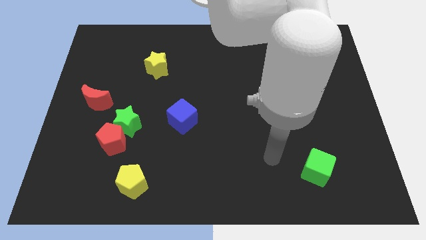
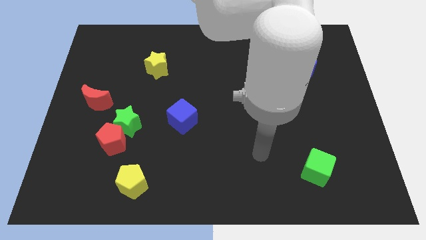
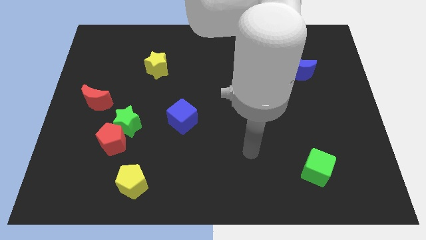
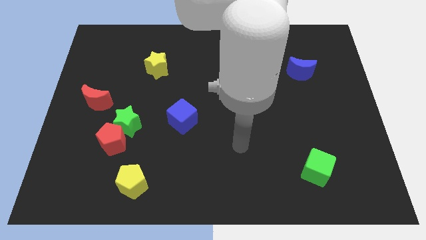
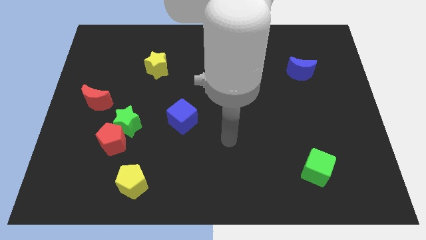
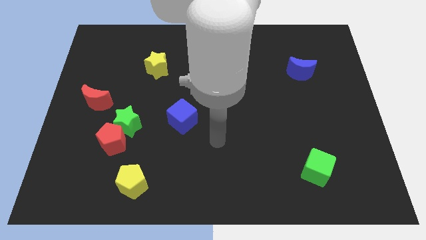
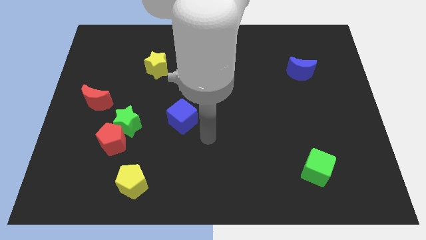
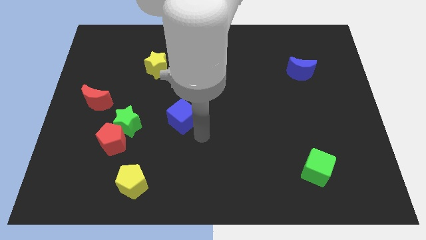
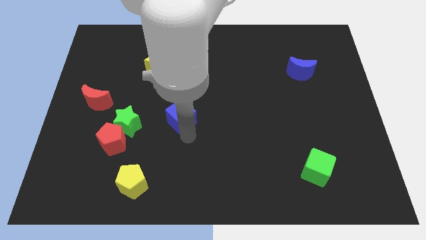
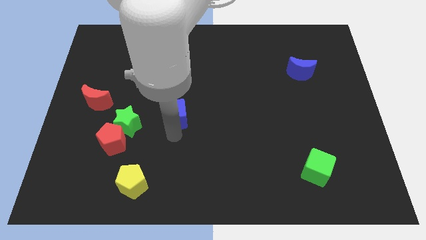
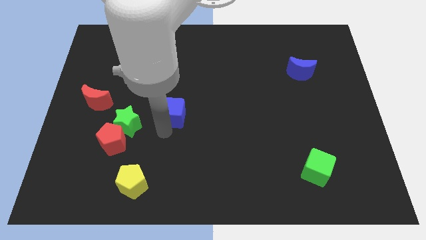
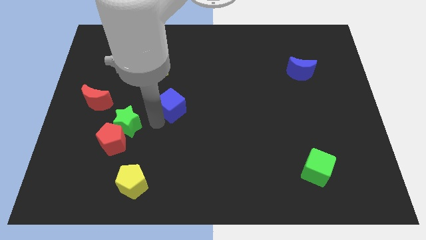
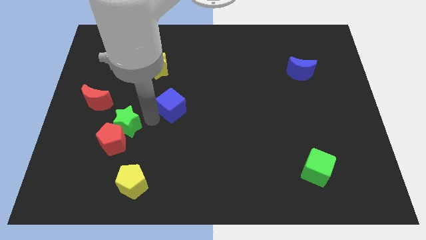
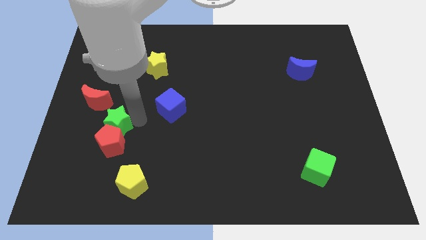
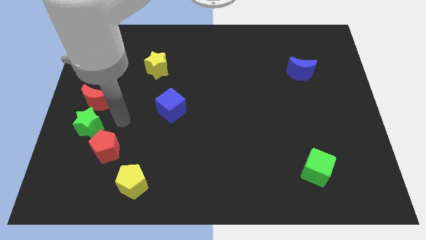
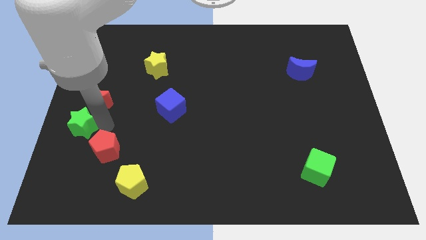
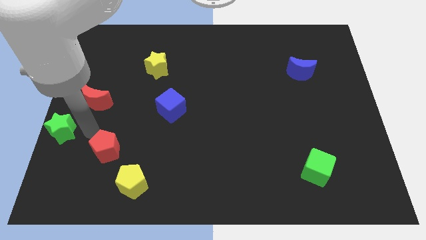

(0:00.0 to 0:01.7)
separate the red pentagon from the green star

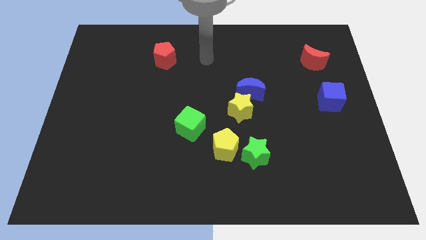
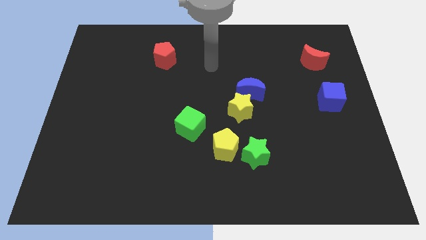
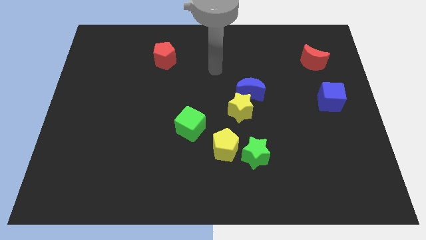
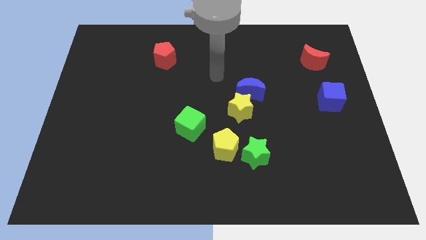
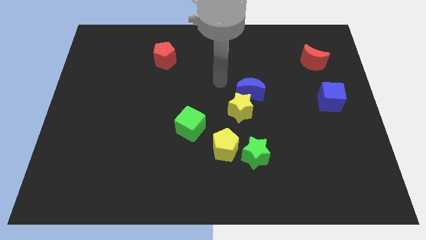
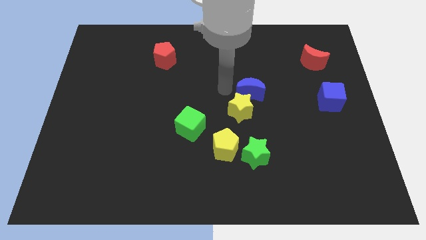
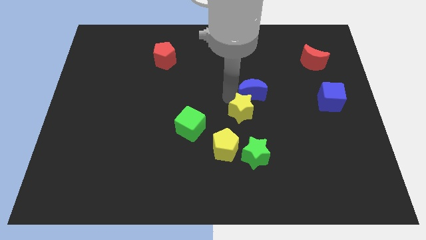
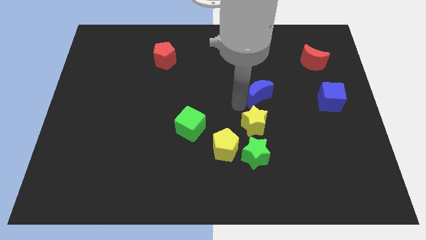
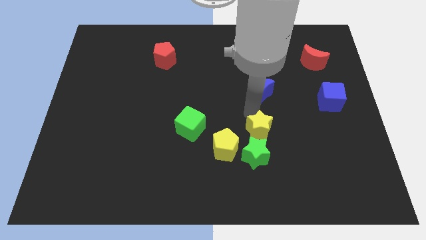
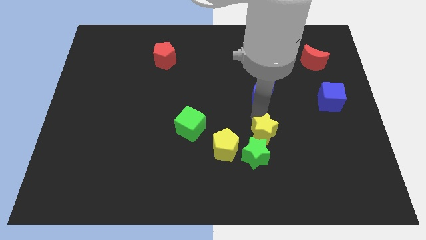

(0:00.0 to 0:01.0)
pull the blue moon apart from the yellow star

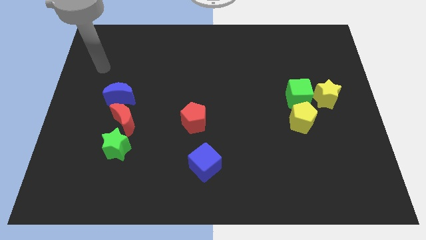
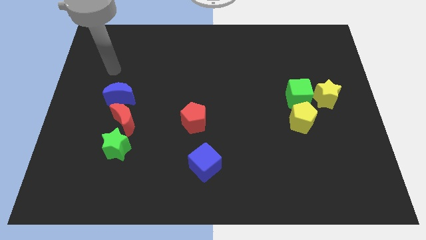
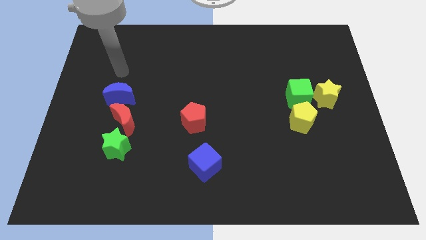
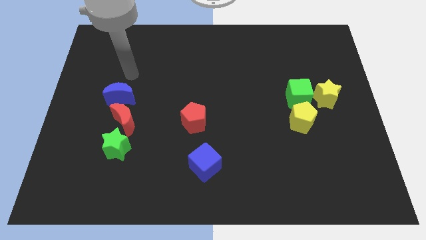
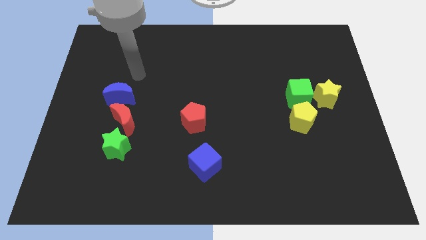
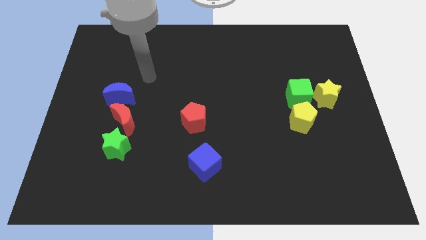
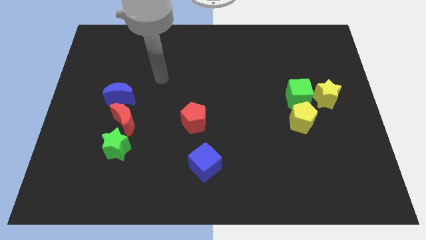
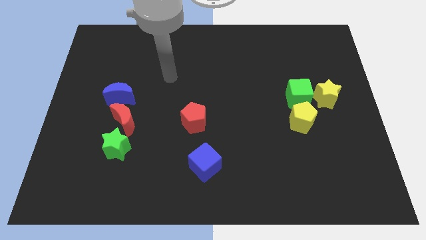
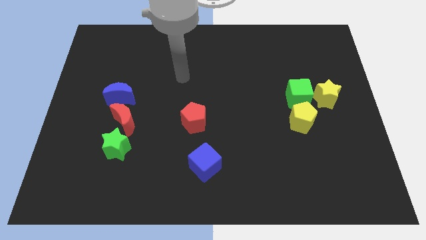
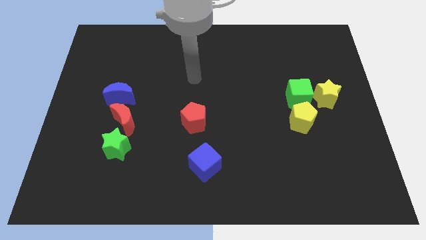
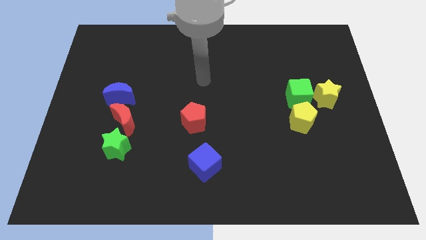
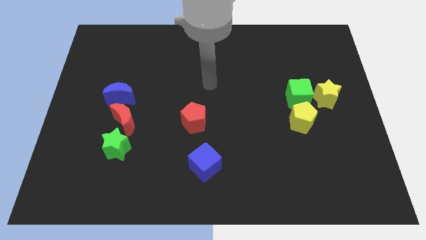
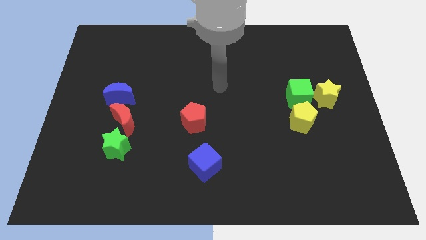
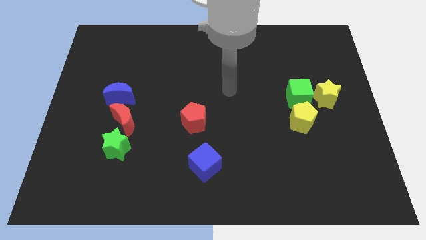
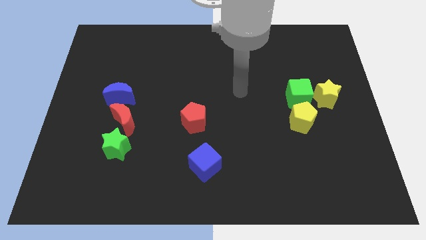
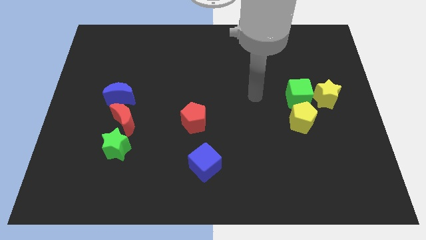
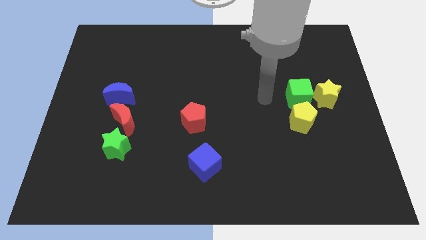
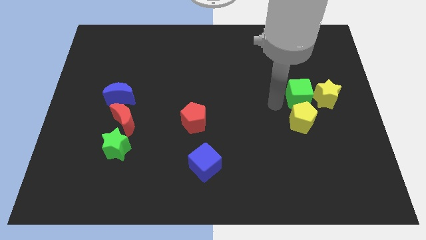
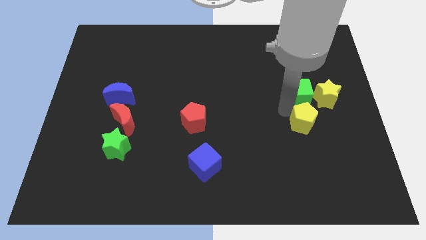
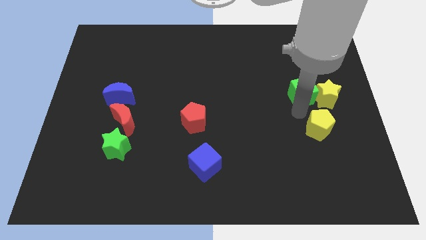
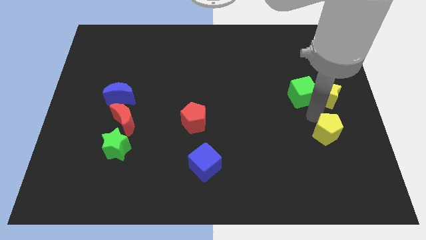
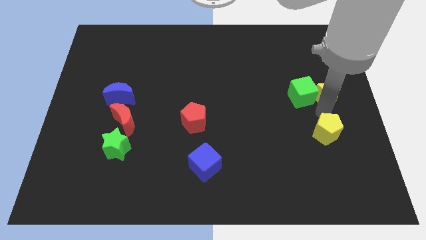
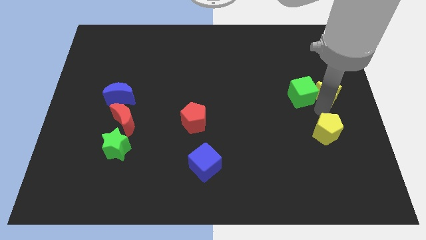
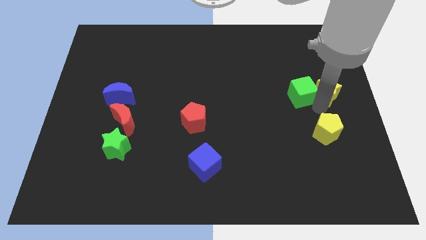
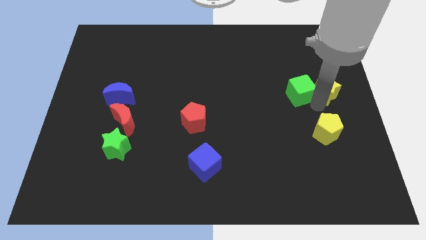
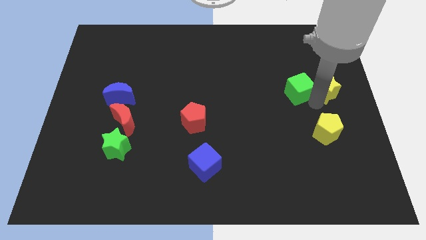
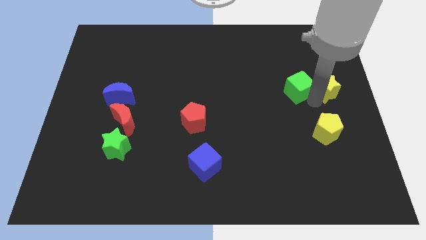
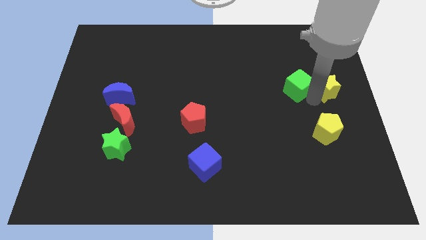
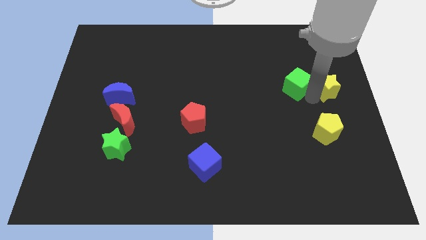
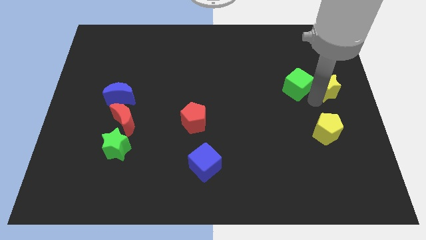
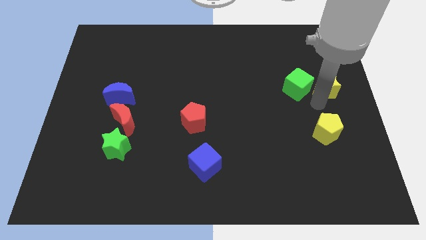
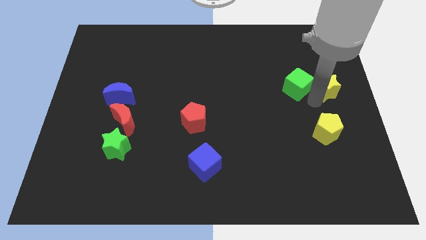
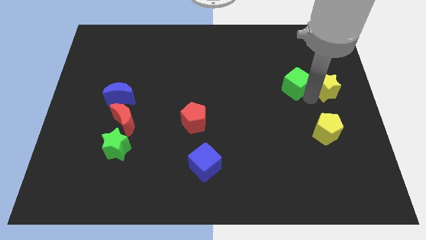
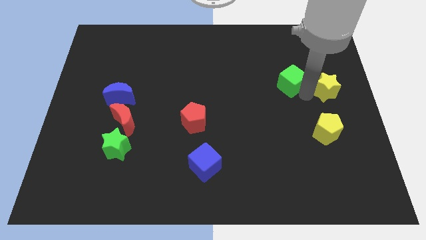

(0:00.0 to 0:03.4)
pull the green cube apart from the yellow star and yellow pentagon

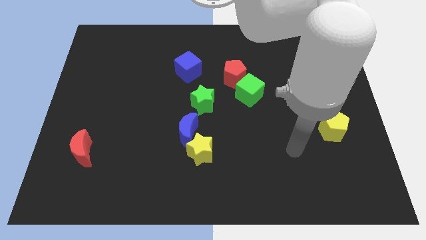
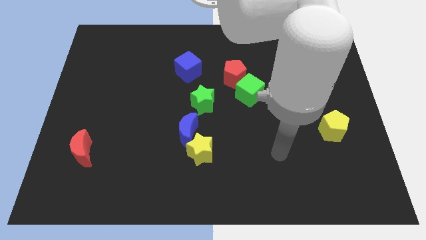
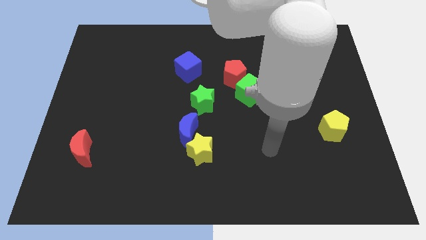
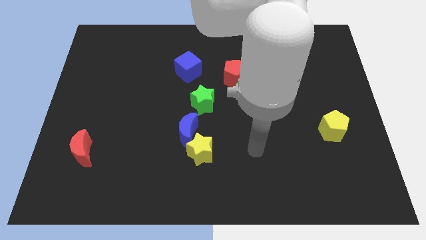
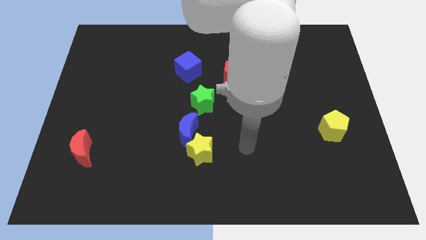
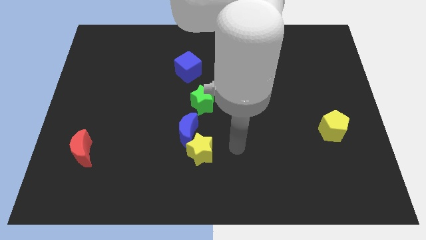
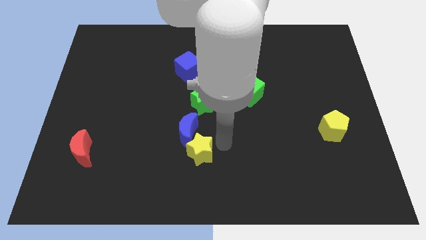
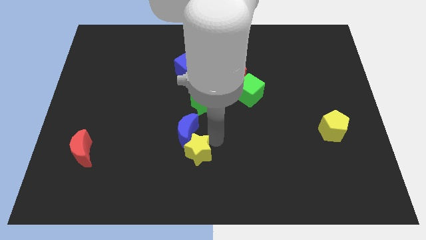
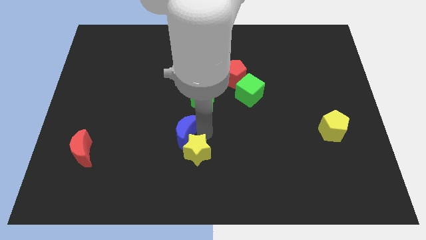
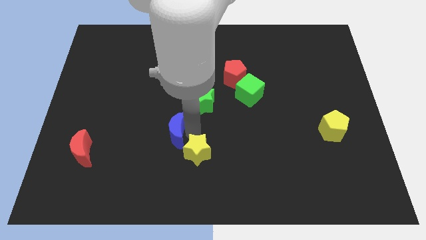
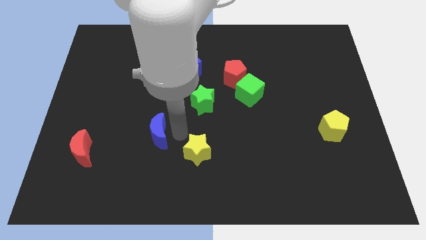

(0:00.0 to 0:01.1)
pull the yellow star apart from the blue moon

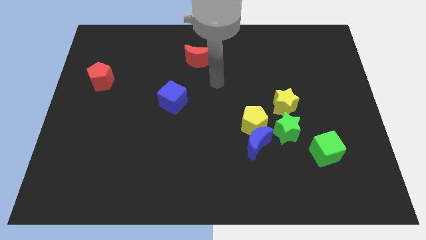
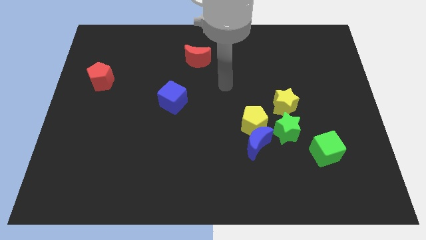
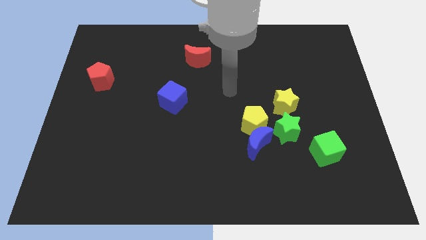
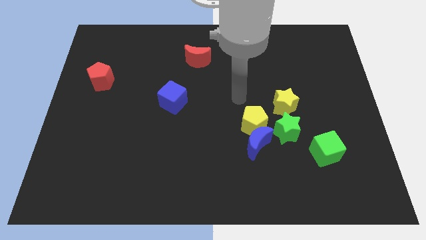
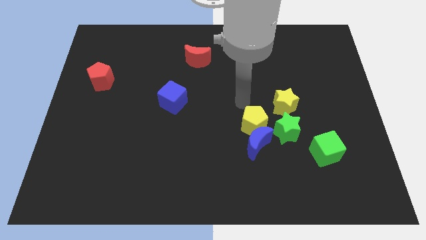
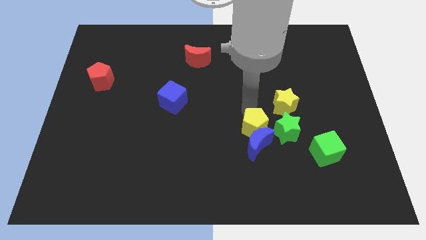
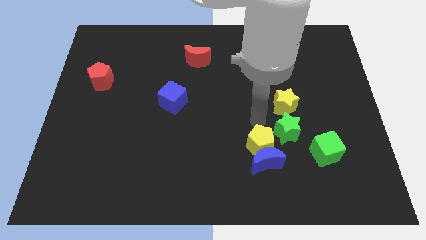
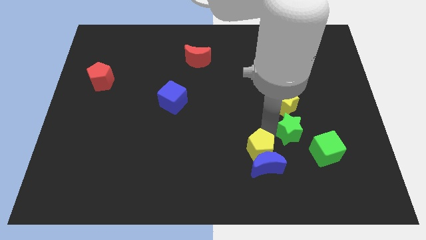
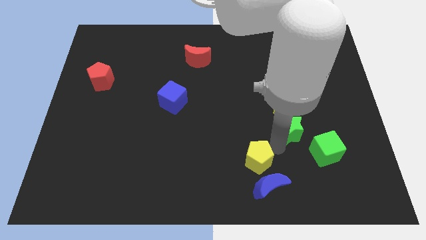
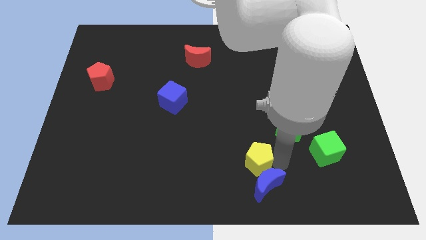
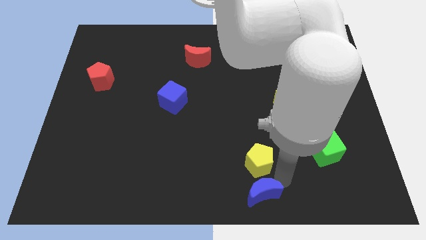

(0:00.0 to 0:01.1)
pull the blue moon apart from the yellow pentagon and green star

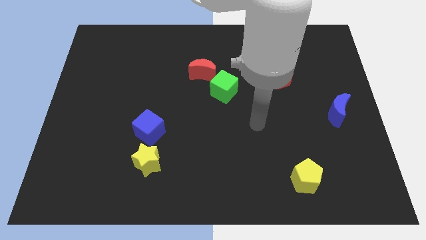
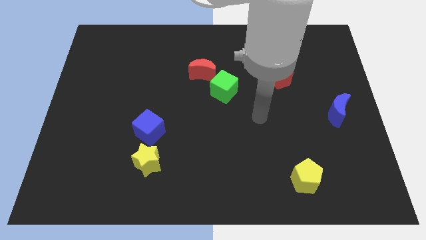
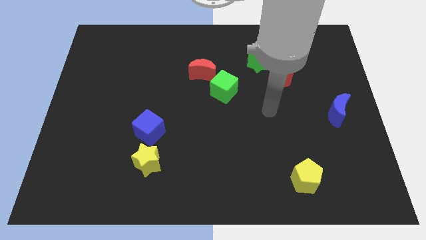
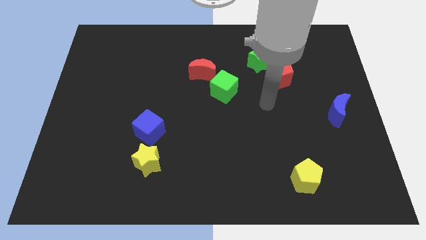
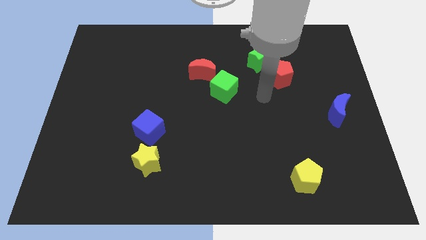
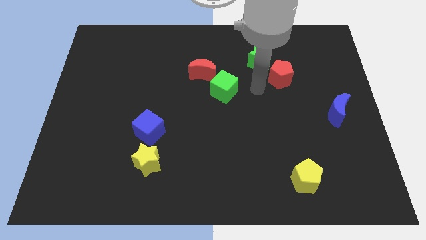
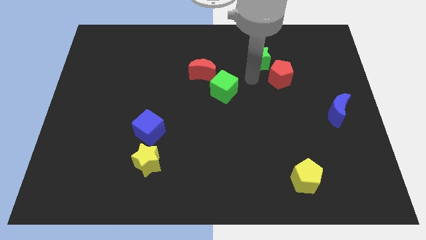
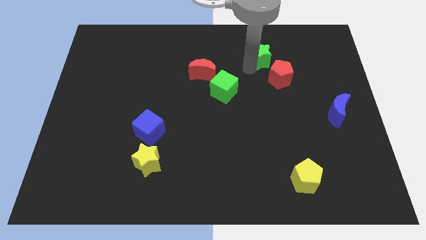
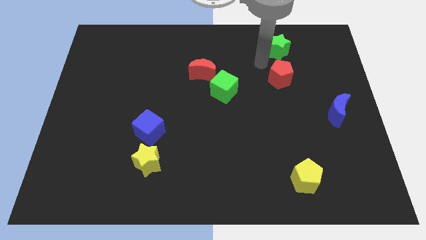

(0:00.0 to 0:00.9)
move the red pentagon away from the green star

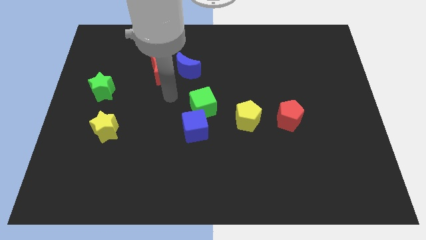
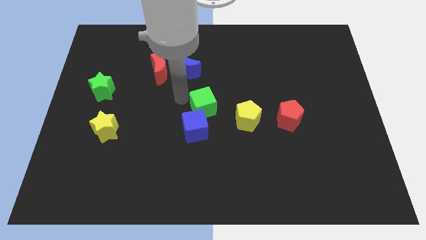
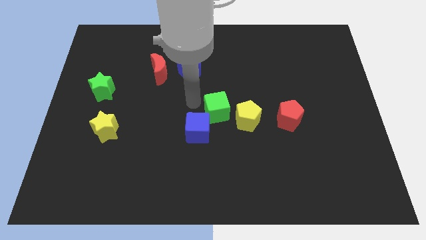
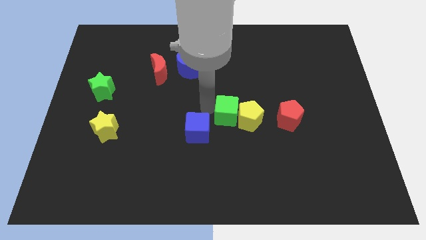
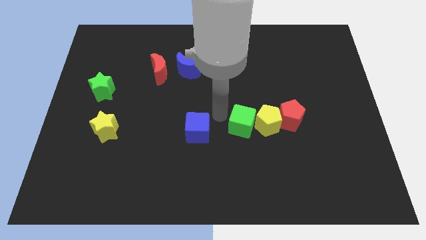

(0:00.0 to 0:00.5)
pull the blue cube apart from the green cube
